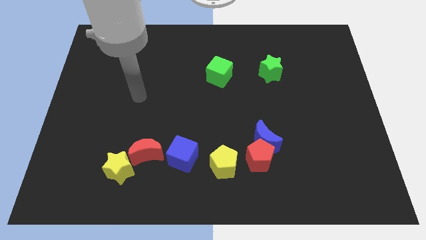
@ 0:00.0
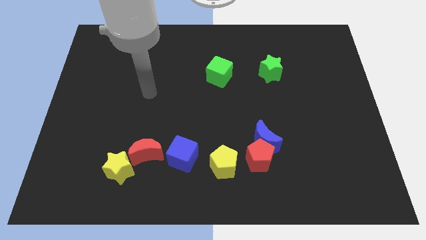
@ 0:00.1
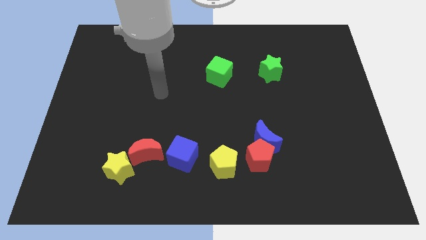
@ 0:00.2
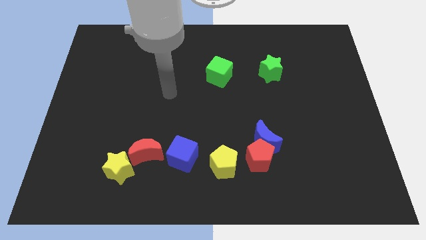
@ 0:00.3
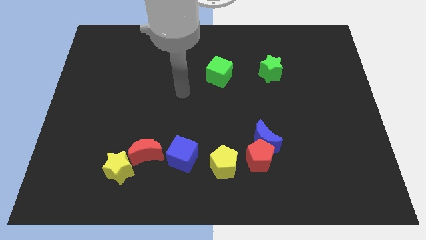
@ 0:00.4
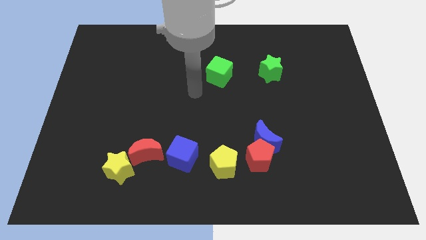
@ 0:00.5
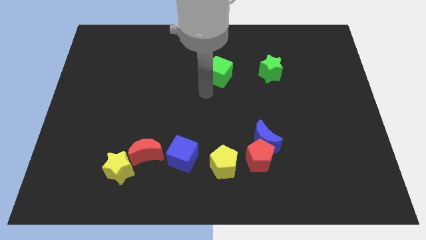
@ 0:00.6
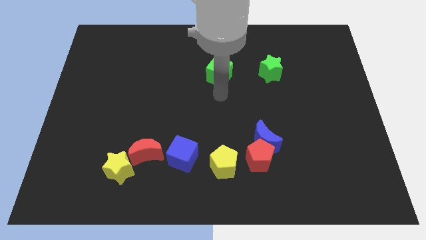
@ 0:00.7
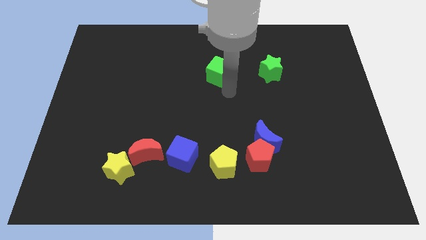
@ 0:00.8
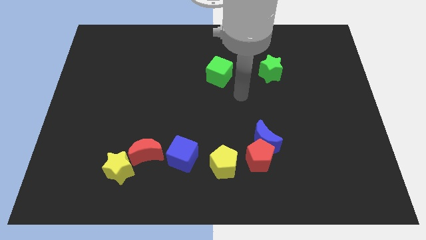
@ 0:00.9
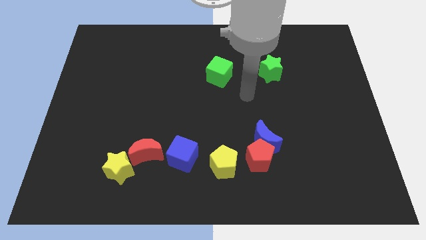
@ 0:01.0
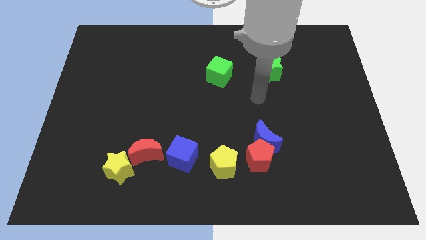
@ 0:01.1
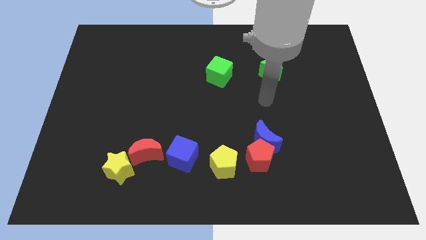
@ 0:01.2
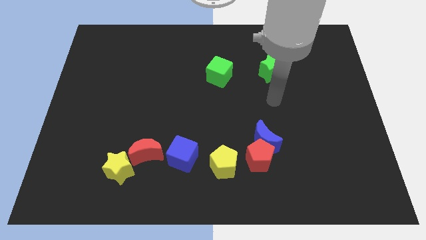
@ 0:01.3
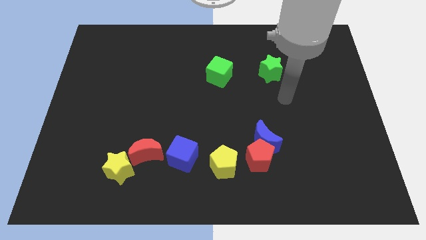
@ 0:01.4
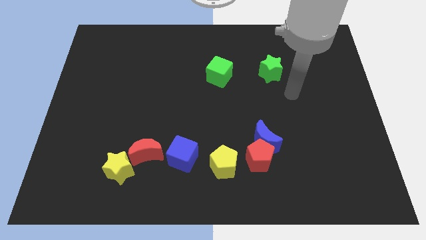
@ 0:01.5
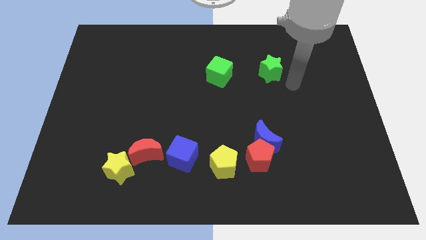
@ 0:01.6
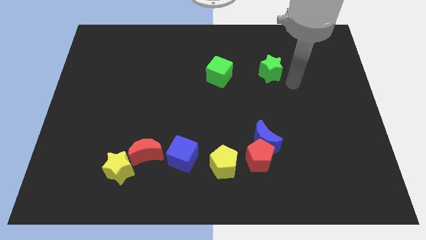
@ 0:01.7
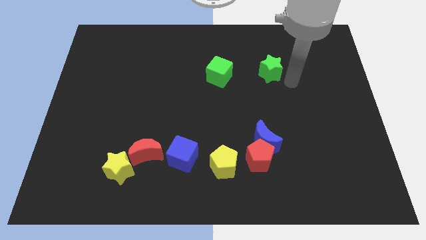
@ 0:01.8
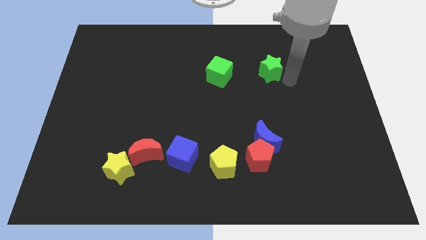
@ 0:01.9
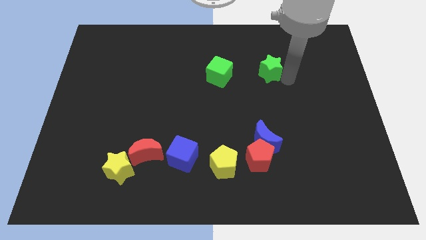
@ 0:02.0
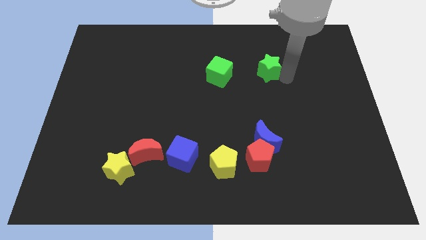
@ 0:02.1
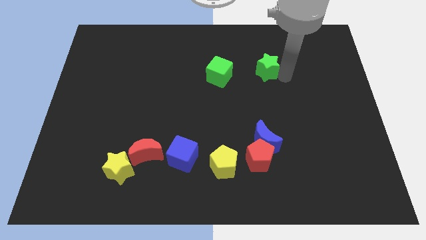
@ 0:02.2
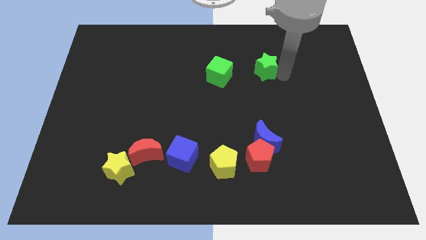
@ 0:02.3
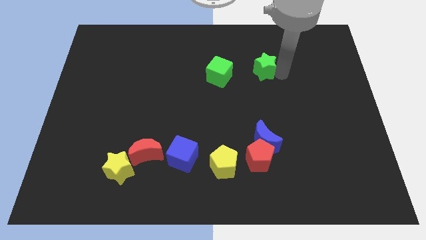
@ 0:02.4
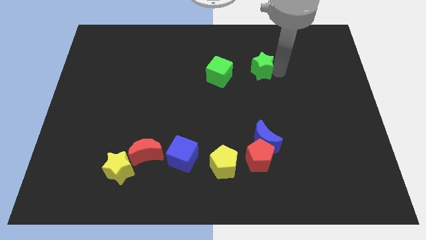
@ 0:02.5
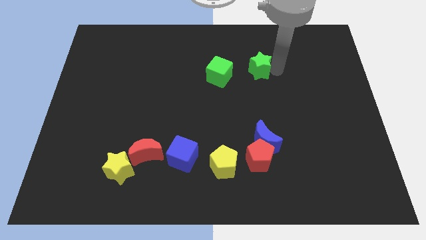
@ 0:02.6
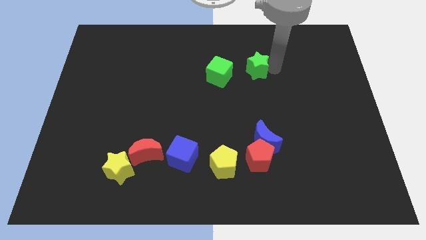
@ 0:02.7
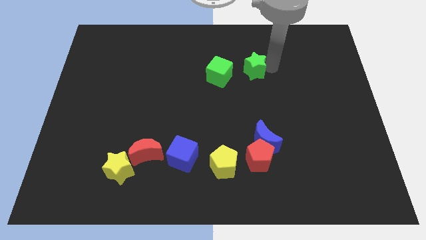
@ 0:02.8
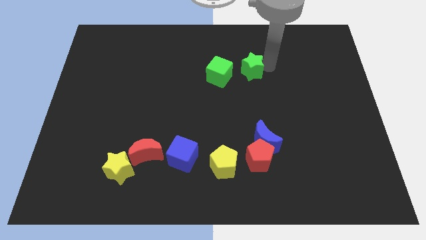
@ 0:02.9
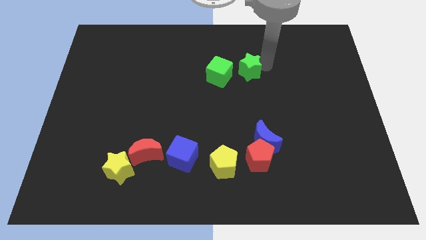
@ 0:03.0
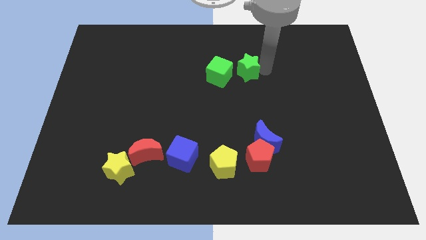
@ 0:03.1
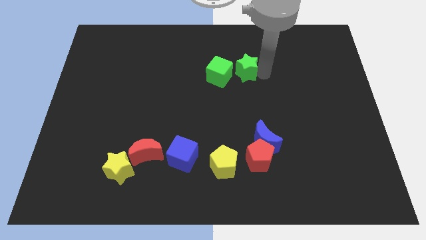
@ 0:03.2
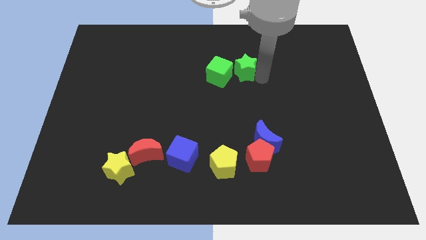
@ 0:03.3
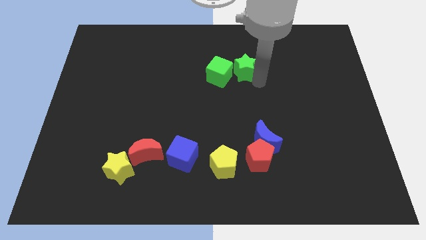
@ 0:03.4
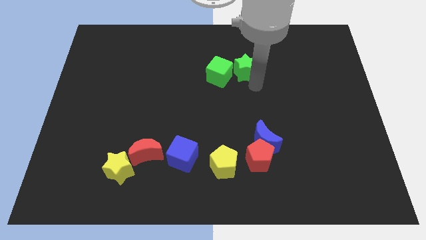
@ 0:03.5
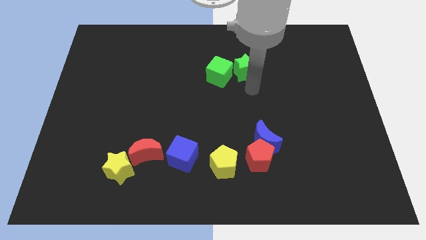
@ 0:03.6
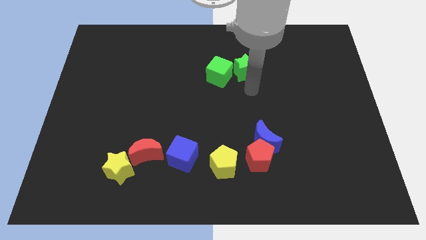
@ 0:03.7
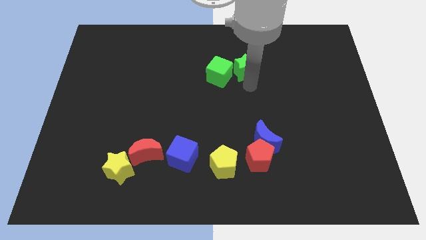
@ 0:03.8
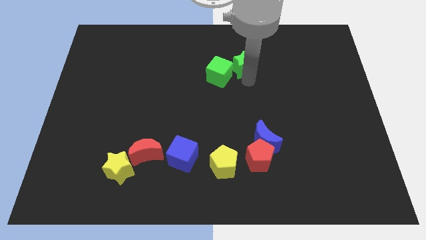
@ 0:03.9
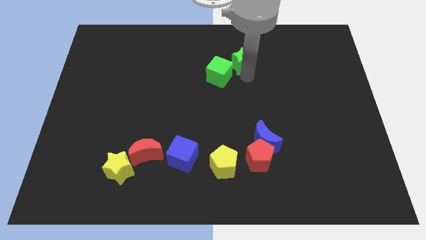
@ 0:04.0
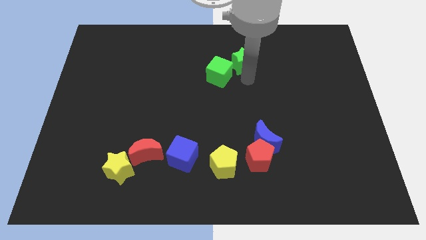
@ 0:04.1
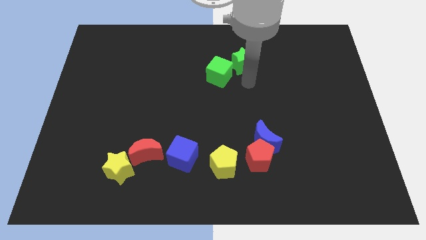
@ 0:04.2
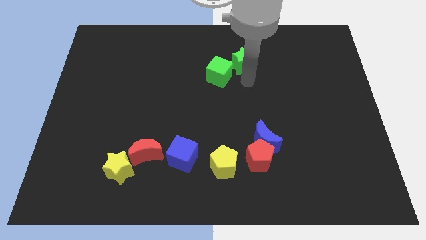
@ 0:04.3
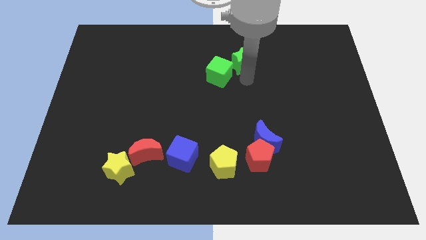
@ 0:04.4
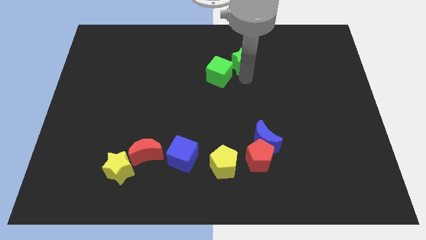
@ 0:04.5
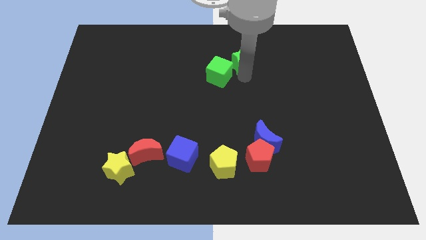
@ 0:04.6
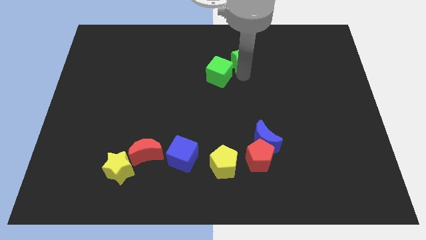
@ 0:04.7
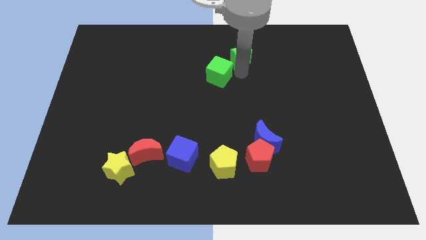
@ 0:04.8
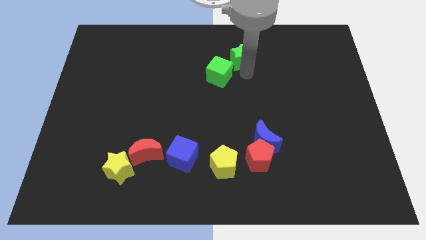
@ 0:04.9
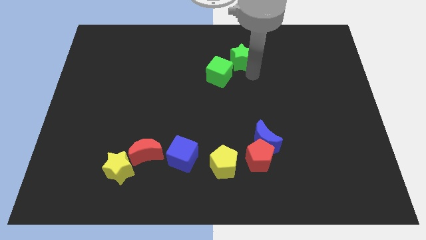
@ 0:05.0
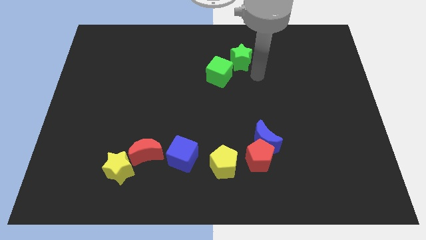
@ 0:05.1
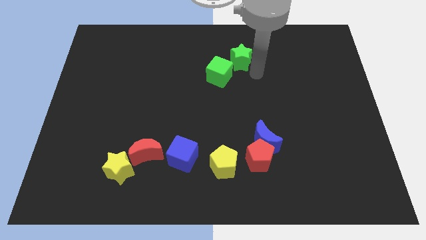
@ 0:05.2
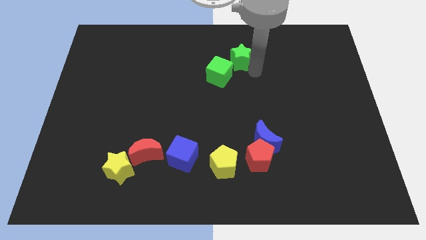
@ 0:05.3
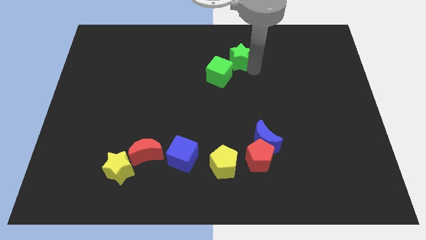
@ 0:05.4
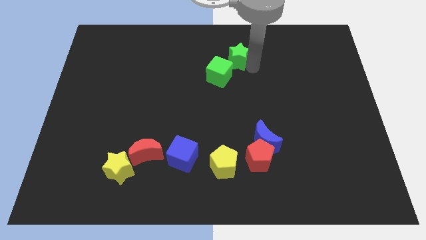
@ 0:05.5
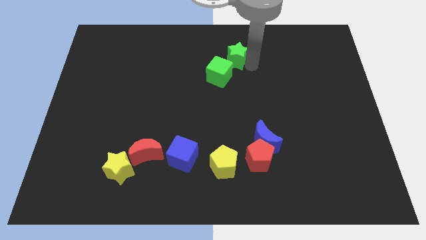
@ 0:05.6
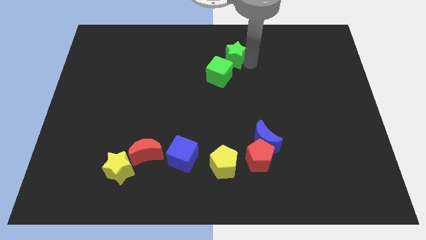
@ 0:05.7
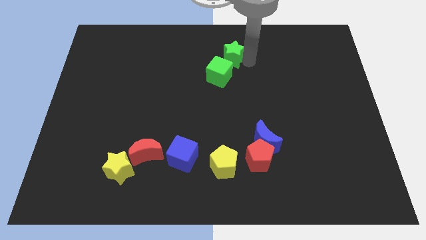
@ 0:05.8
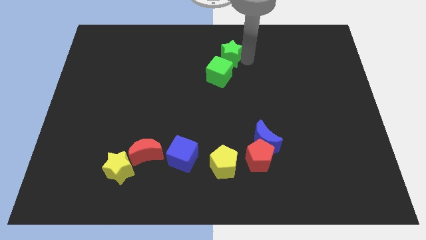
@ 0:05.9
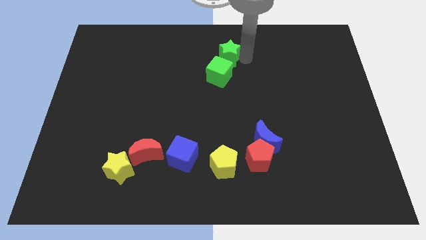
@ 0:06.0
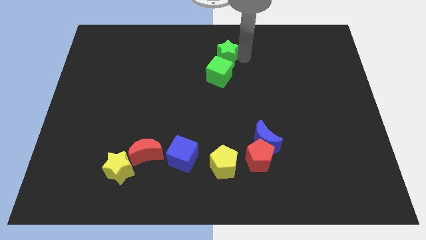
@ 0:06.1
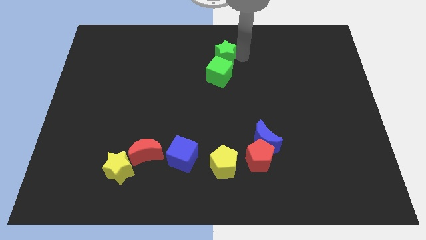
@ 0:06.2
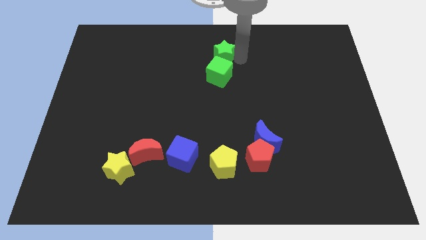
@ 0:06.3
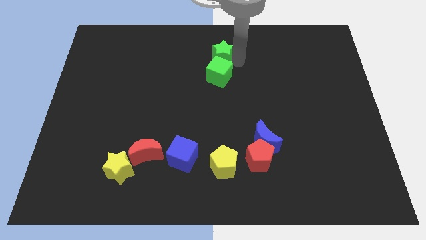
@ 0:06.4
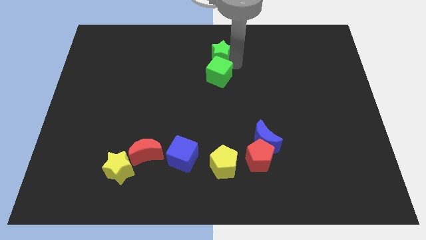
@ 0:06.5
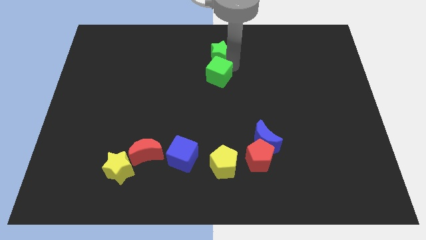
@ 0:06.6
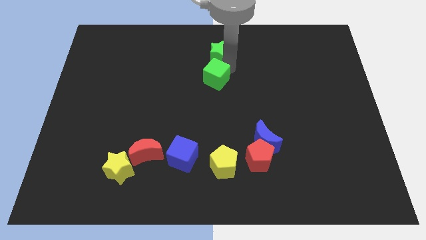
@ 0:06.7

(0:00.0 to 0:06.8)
put the green star to the top
